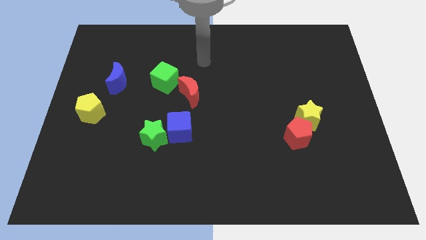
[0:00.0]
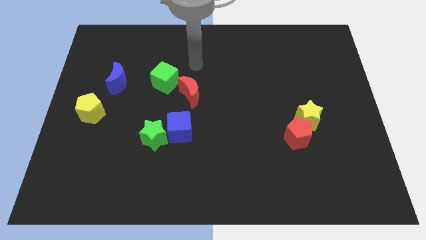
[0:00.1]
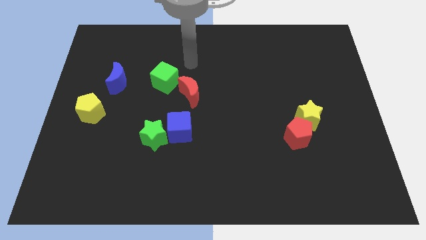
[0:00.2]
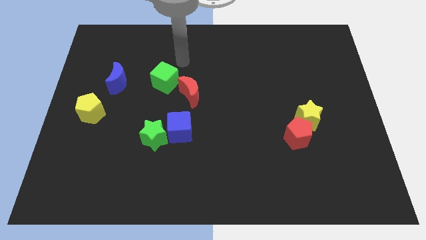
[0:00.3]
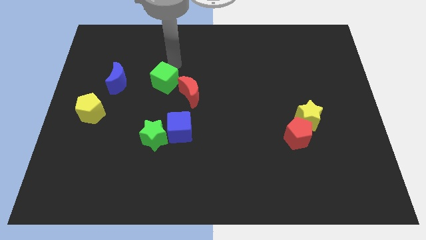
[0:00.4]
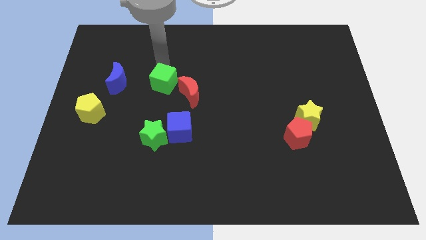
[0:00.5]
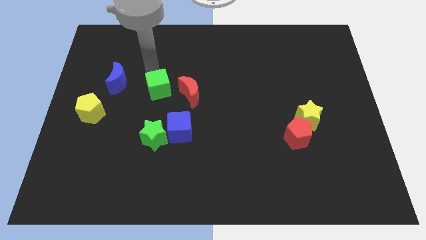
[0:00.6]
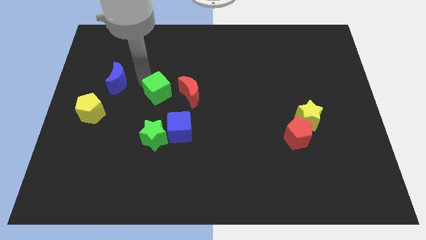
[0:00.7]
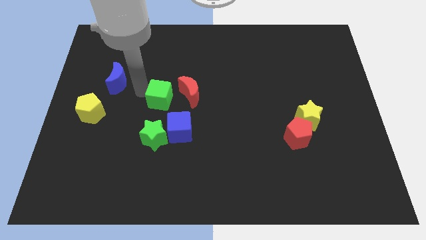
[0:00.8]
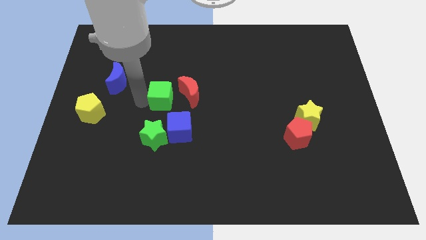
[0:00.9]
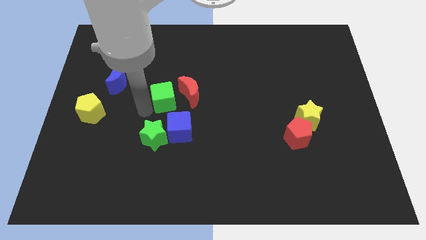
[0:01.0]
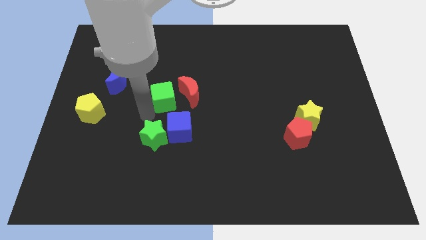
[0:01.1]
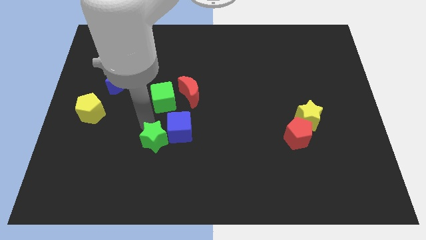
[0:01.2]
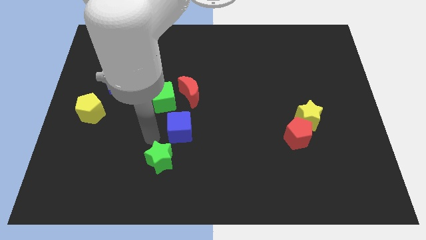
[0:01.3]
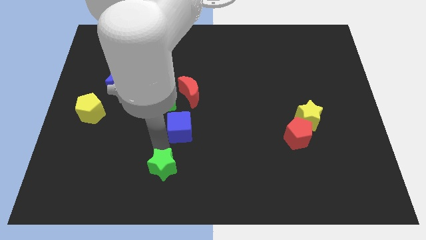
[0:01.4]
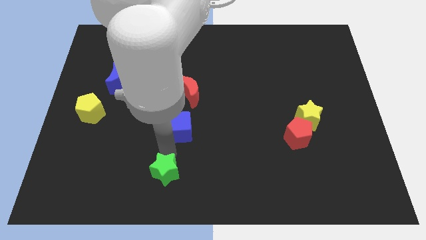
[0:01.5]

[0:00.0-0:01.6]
separate the blue cube from the green star

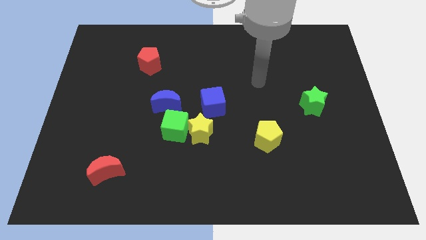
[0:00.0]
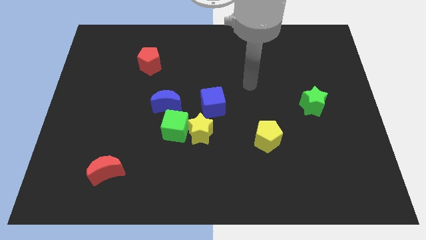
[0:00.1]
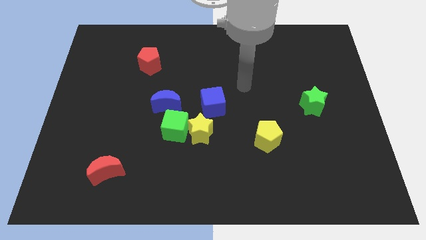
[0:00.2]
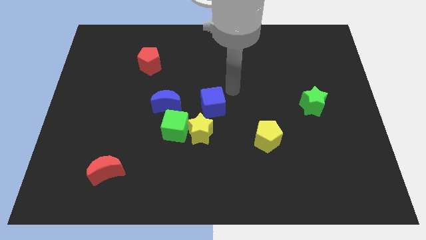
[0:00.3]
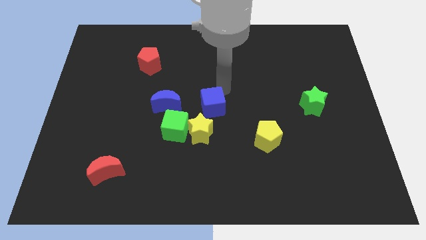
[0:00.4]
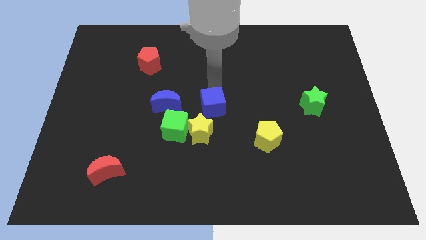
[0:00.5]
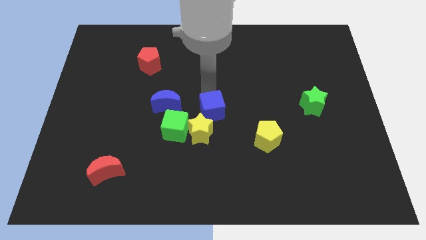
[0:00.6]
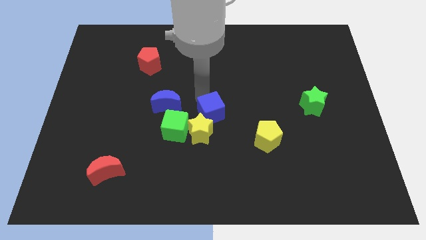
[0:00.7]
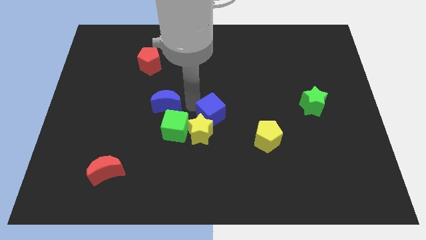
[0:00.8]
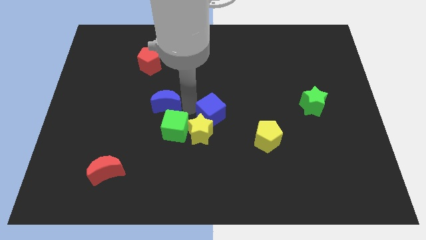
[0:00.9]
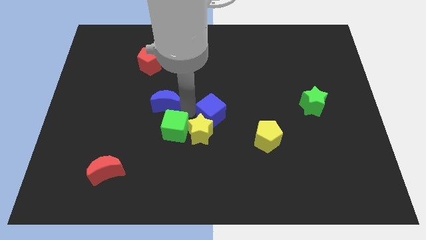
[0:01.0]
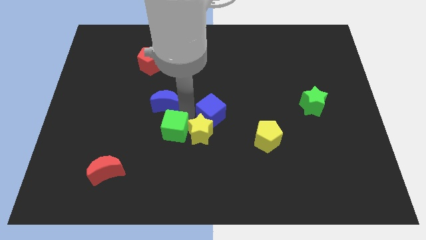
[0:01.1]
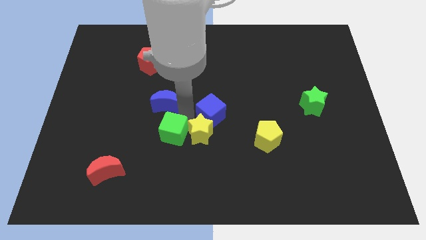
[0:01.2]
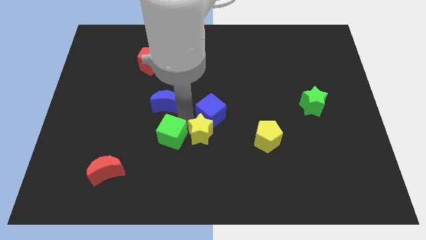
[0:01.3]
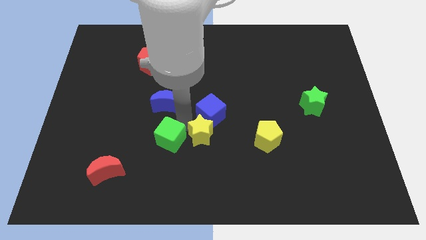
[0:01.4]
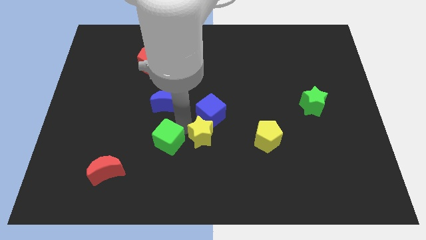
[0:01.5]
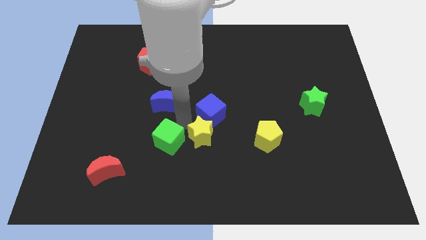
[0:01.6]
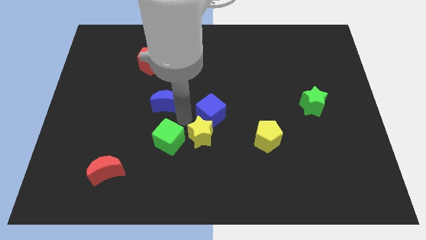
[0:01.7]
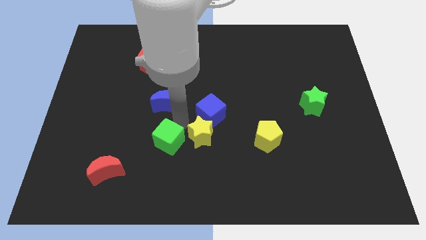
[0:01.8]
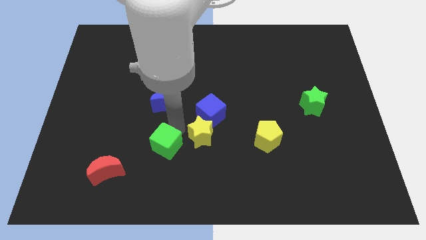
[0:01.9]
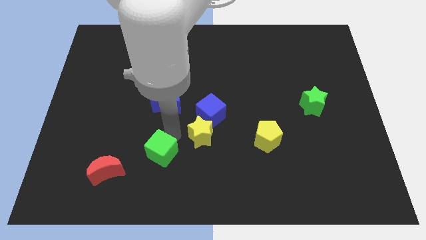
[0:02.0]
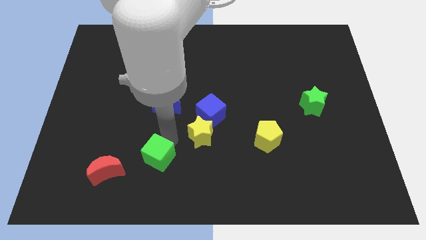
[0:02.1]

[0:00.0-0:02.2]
separate the green cube from the yellow star and blue moon

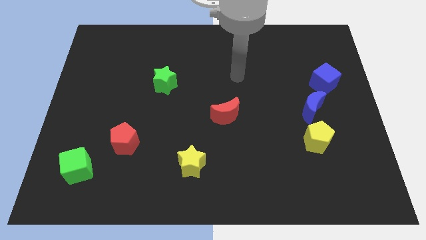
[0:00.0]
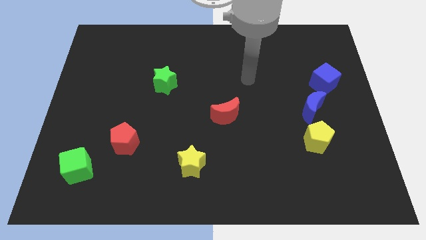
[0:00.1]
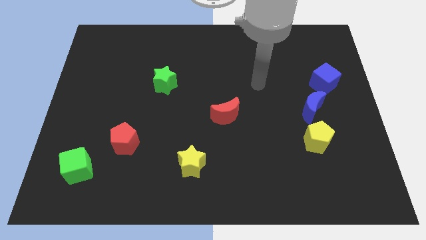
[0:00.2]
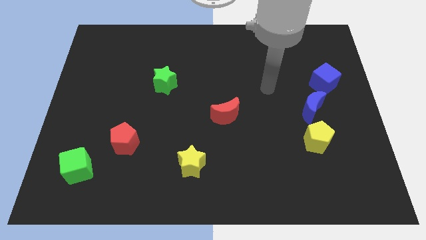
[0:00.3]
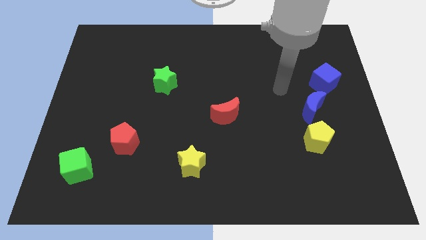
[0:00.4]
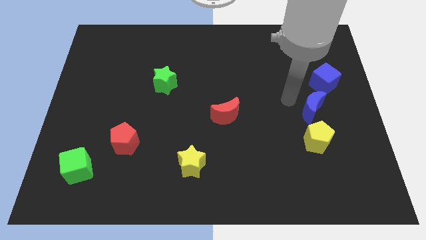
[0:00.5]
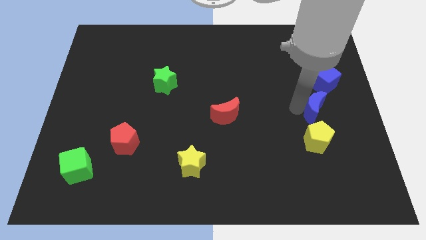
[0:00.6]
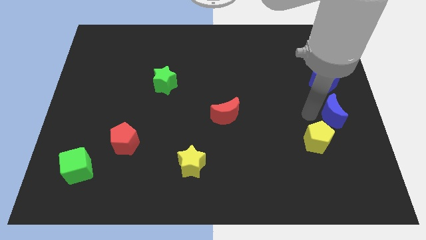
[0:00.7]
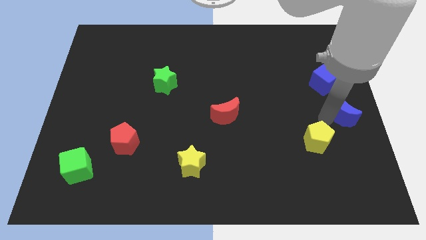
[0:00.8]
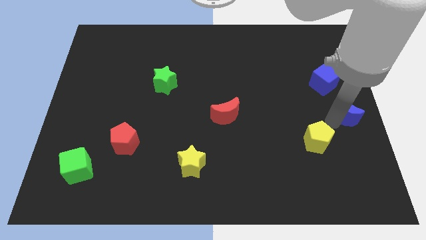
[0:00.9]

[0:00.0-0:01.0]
move the yellow pentagon away from the blue moon

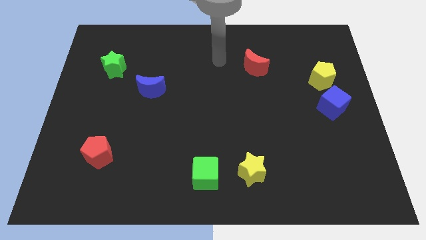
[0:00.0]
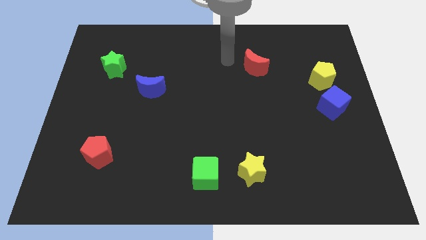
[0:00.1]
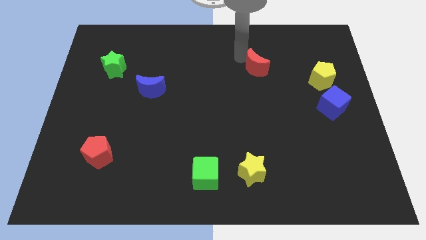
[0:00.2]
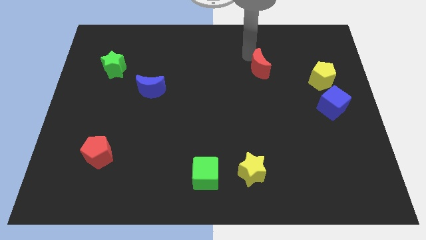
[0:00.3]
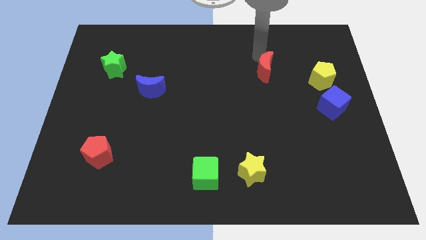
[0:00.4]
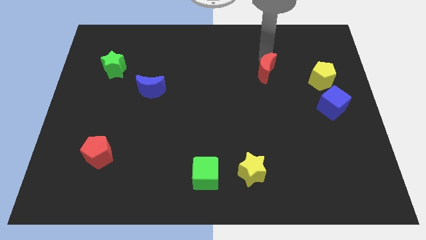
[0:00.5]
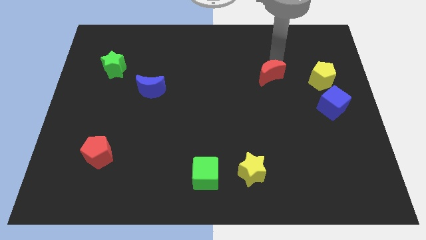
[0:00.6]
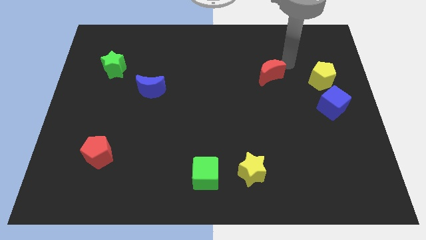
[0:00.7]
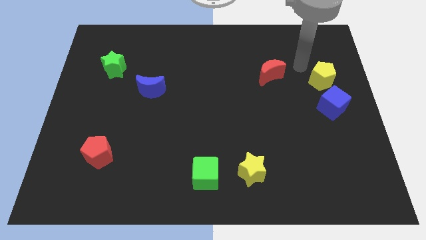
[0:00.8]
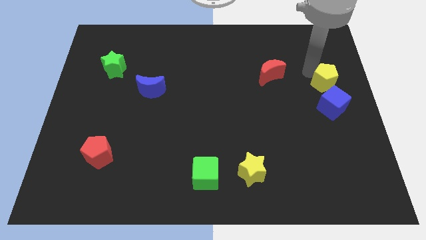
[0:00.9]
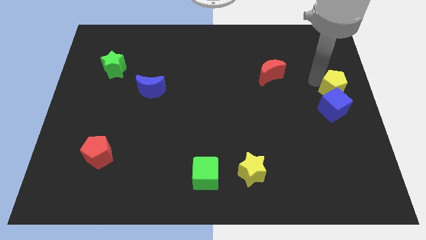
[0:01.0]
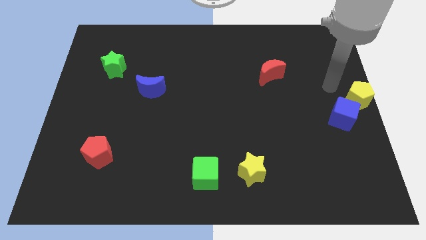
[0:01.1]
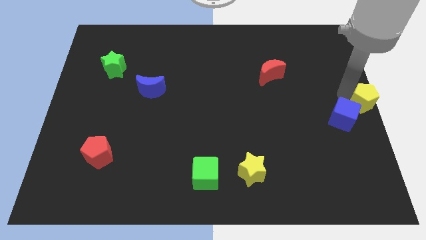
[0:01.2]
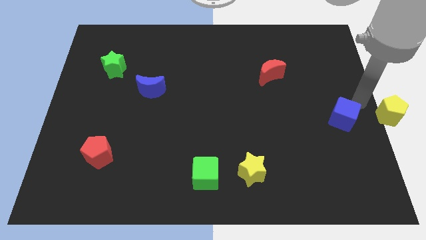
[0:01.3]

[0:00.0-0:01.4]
move the blue cube away from the yellow pentagon

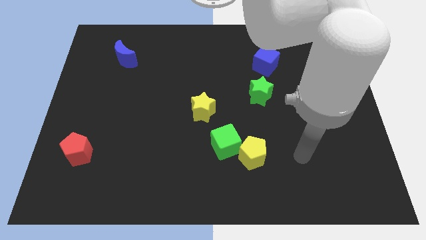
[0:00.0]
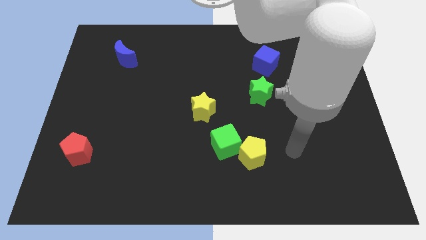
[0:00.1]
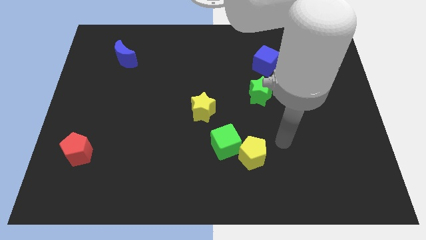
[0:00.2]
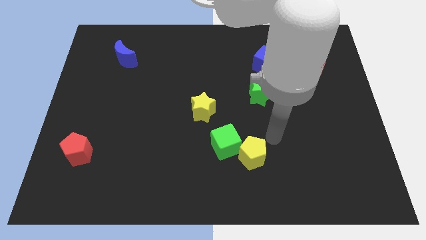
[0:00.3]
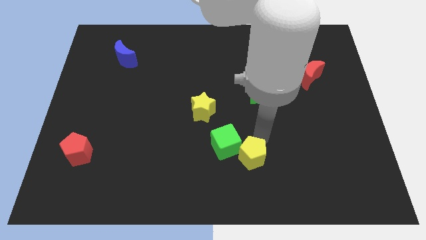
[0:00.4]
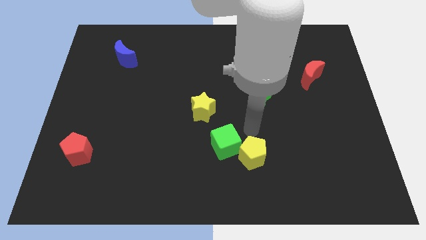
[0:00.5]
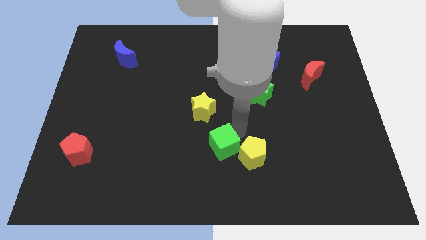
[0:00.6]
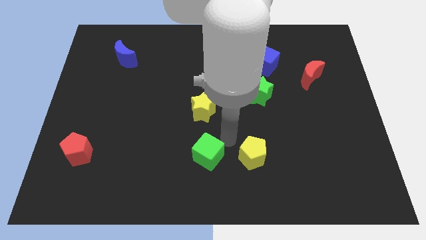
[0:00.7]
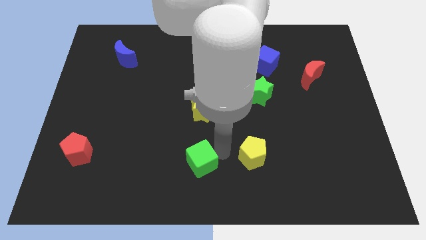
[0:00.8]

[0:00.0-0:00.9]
move the yellow pentagon away from the green cube

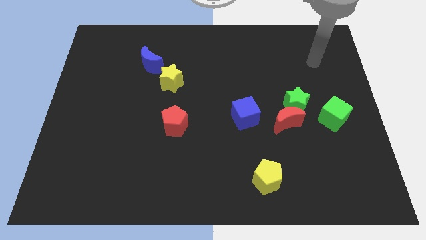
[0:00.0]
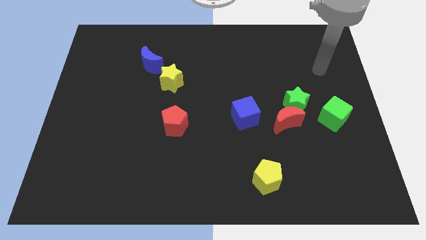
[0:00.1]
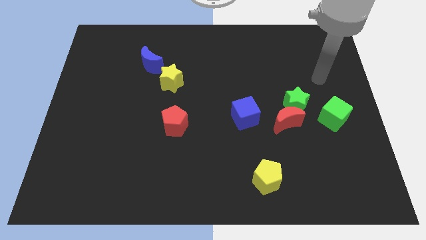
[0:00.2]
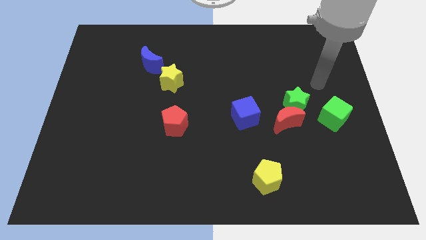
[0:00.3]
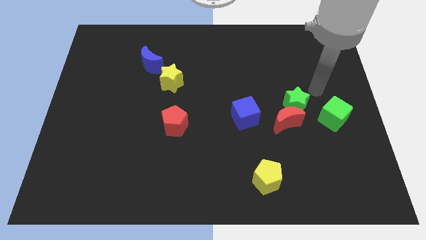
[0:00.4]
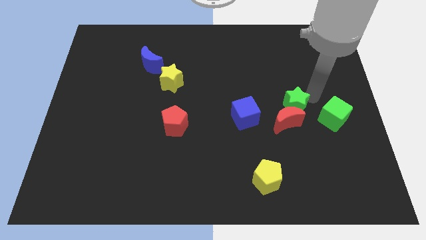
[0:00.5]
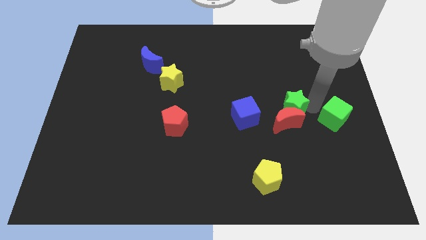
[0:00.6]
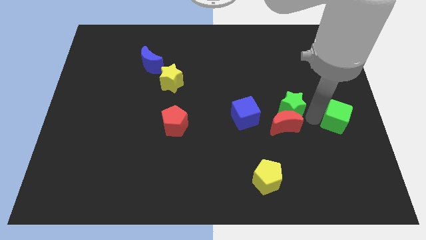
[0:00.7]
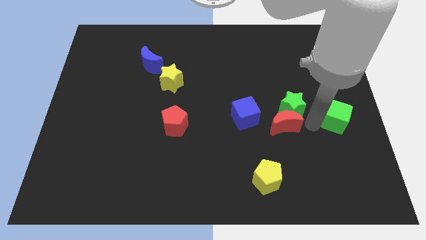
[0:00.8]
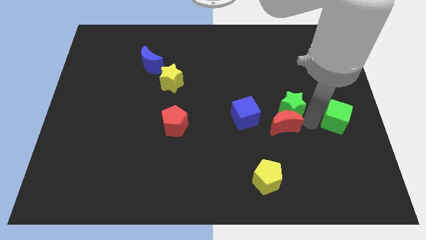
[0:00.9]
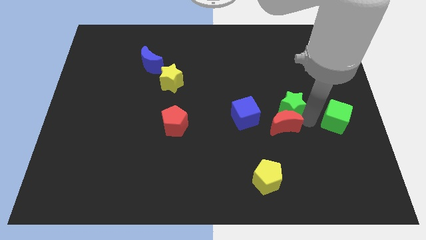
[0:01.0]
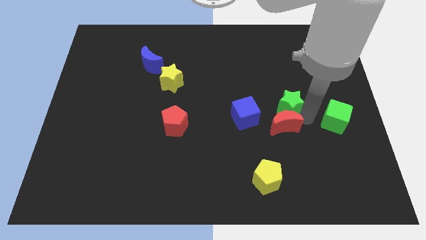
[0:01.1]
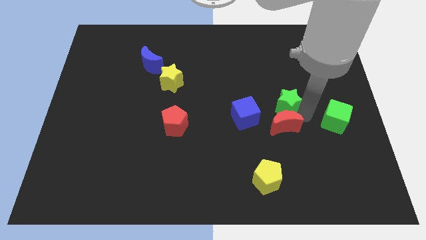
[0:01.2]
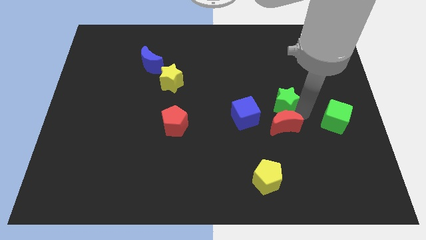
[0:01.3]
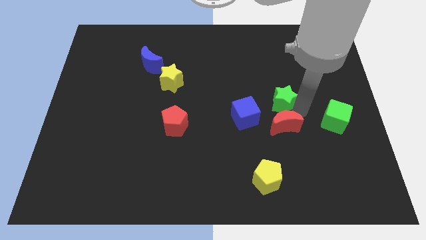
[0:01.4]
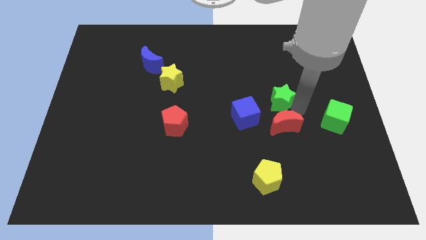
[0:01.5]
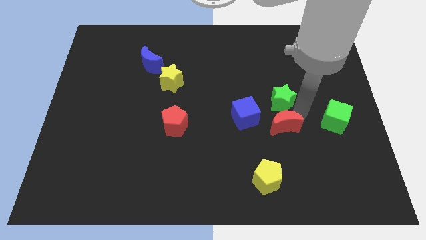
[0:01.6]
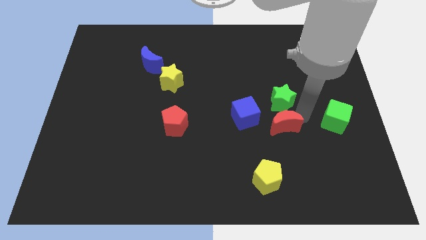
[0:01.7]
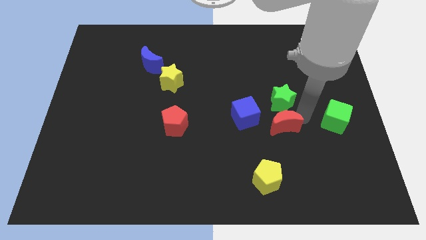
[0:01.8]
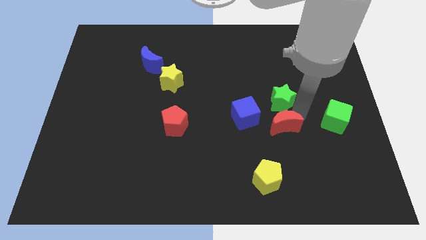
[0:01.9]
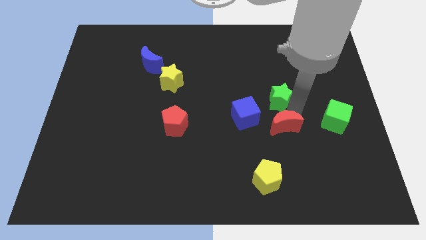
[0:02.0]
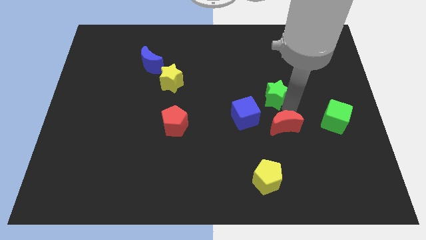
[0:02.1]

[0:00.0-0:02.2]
move the green star away from the red moon and green cube
